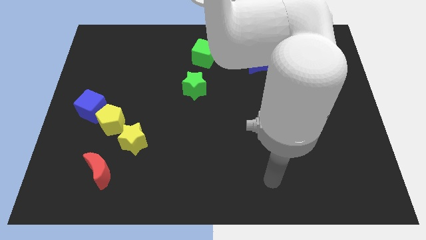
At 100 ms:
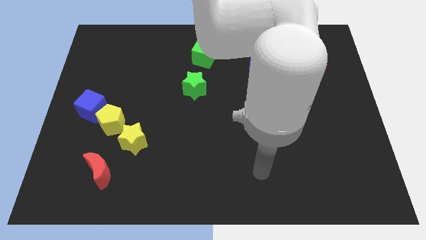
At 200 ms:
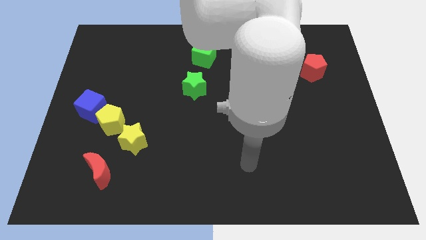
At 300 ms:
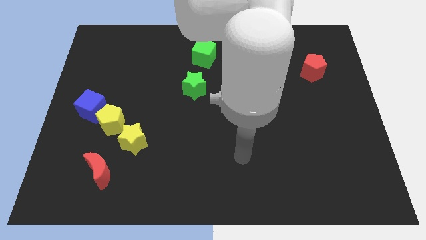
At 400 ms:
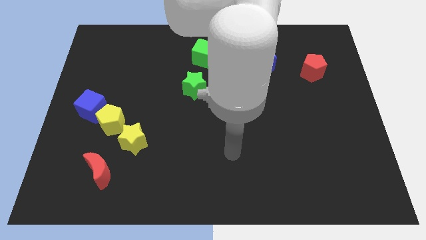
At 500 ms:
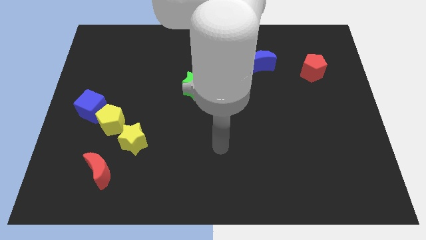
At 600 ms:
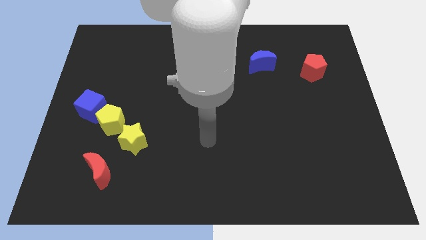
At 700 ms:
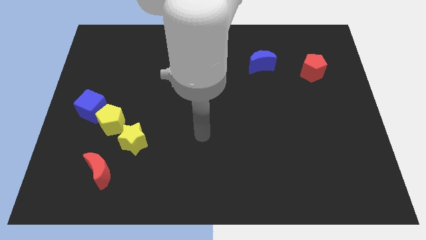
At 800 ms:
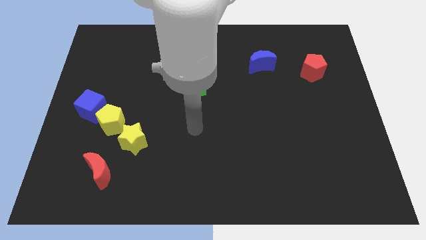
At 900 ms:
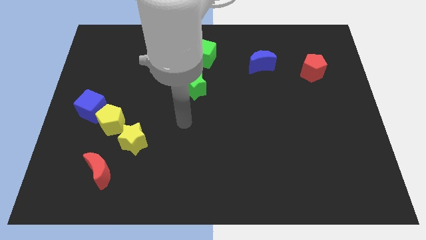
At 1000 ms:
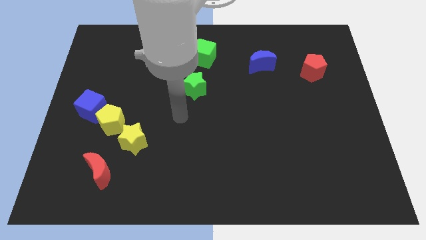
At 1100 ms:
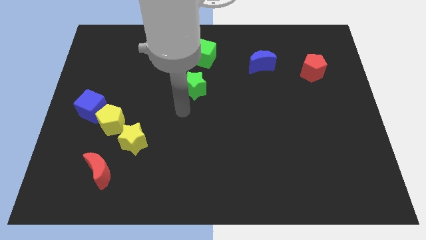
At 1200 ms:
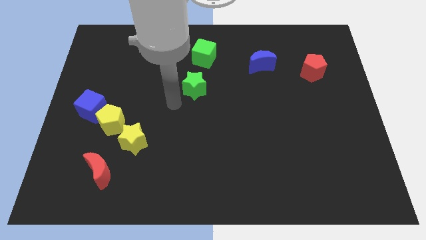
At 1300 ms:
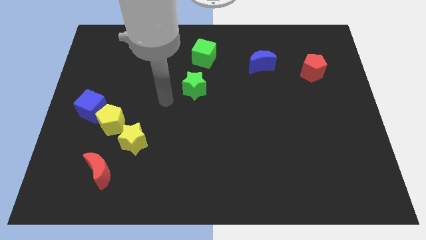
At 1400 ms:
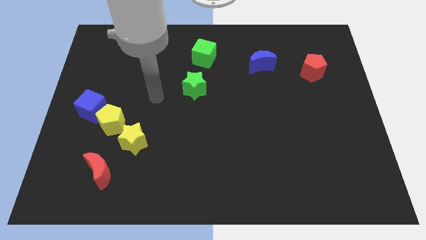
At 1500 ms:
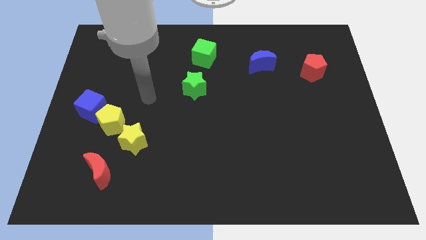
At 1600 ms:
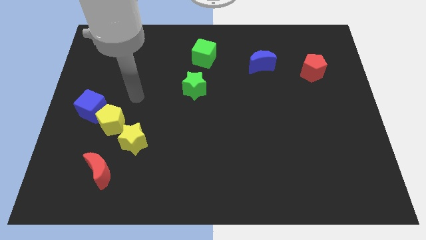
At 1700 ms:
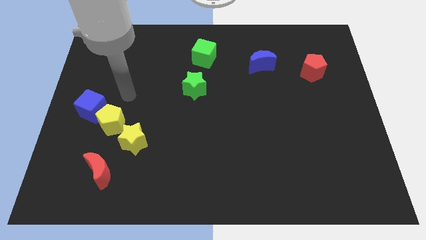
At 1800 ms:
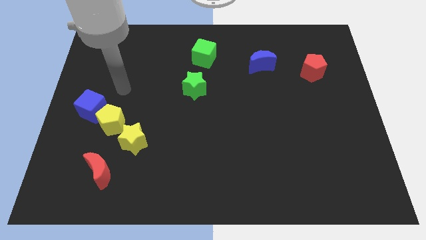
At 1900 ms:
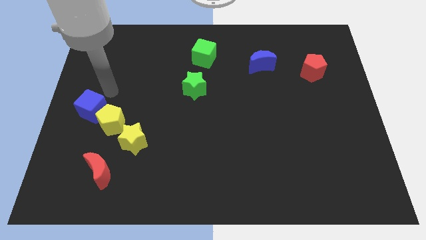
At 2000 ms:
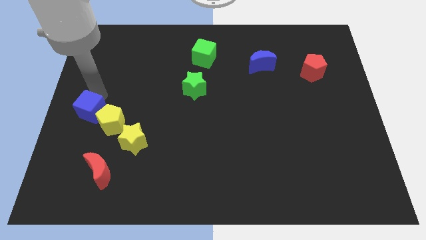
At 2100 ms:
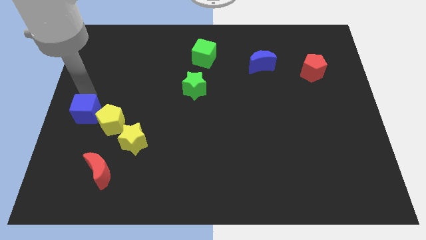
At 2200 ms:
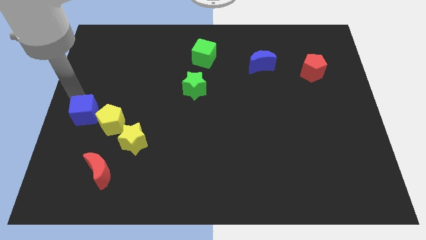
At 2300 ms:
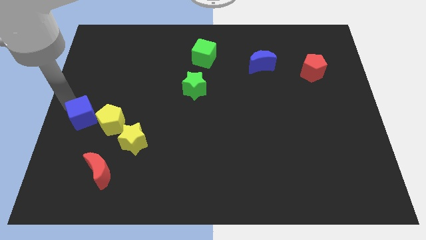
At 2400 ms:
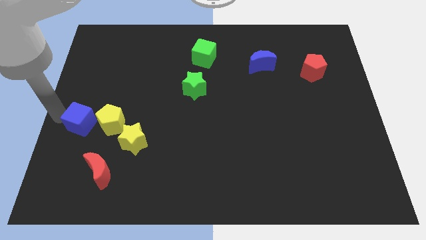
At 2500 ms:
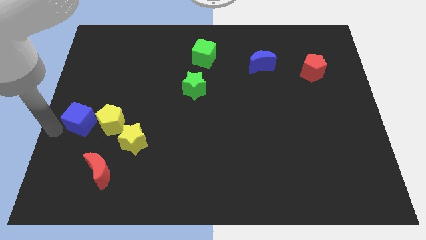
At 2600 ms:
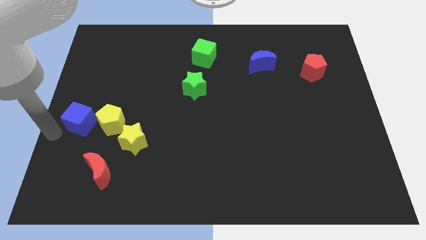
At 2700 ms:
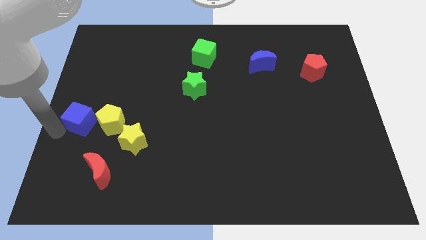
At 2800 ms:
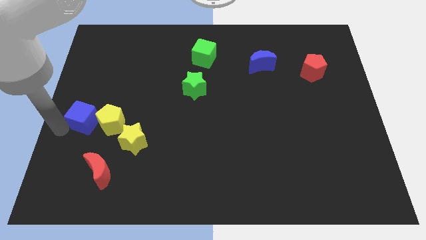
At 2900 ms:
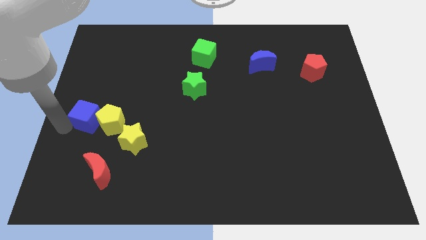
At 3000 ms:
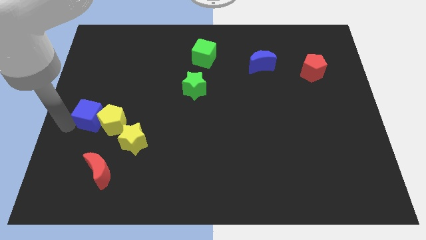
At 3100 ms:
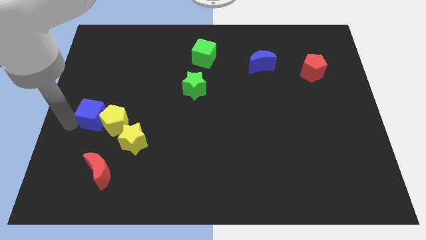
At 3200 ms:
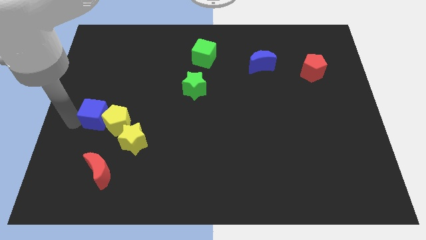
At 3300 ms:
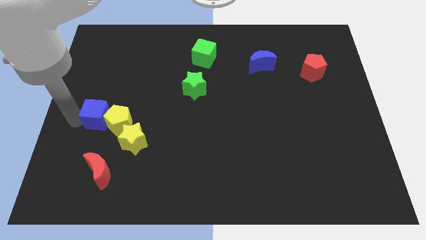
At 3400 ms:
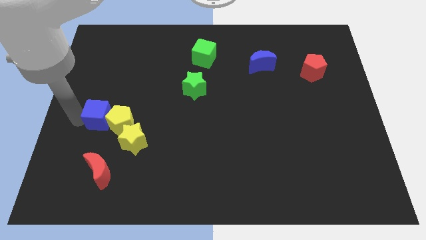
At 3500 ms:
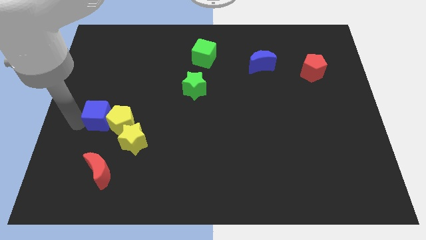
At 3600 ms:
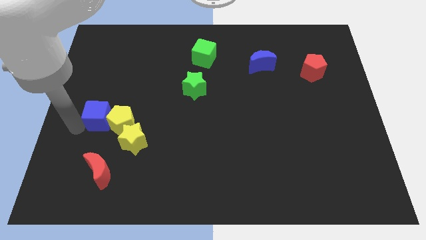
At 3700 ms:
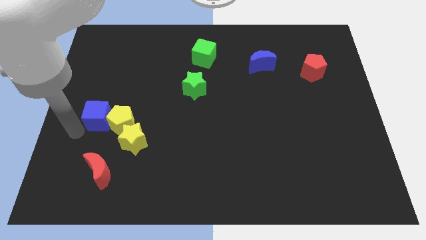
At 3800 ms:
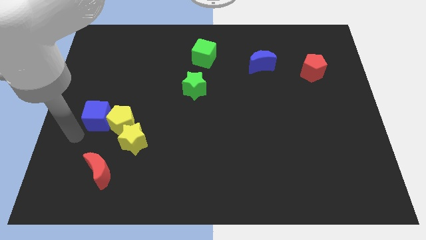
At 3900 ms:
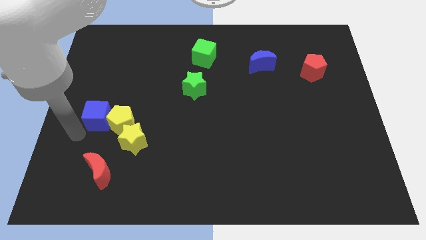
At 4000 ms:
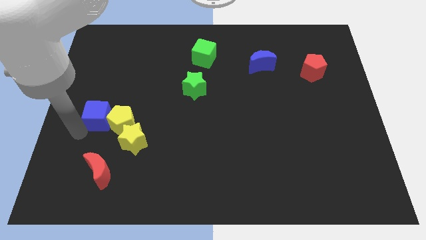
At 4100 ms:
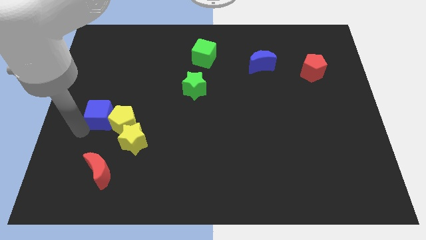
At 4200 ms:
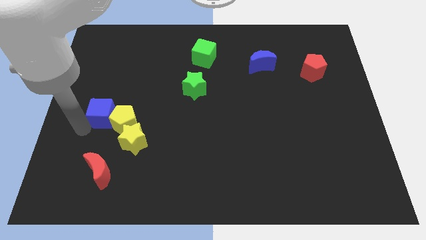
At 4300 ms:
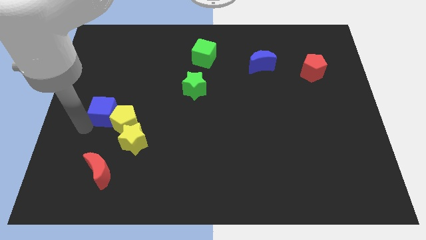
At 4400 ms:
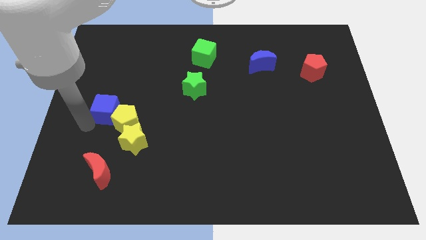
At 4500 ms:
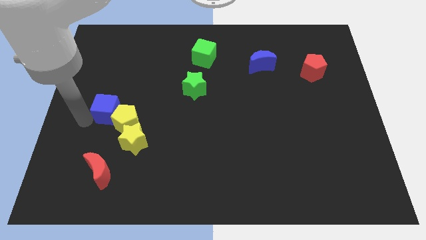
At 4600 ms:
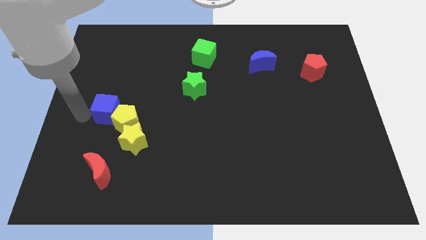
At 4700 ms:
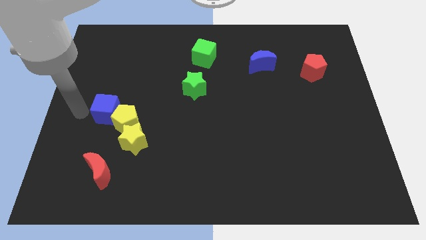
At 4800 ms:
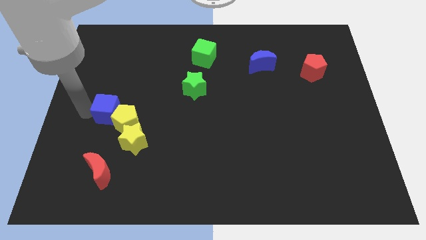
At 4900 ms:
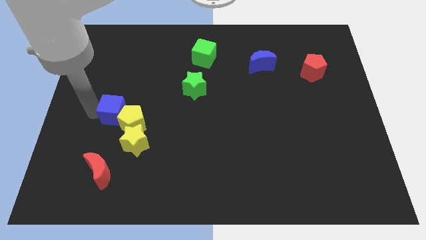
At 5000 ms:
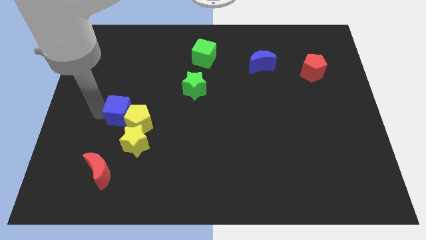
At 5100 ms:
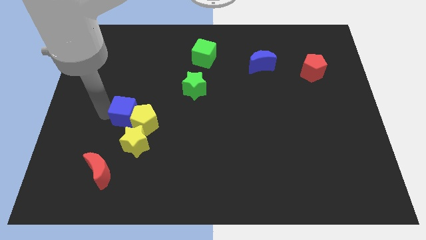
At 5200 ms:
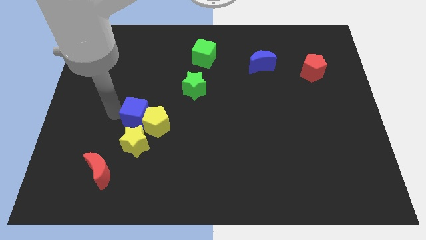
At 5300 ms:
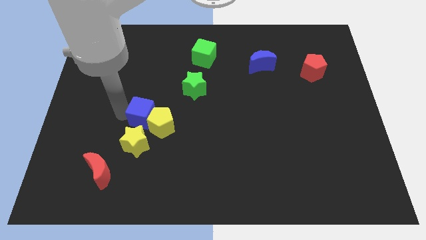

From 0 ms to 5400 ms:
push the blue cube to the top right of the yellow star

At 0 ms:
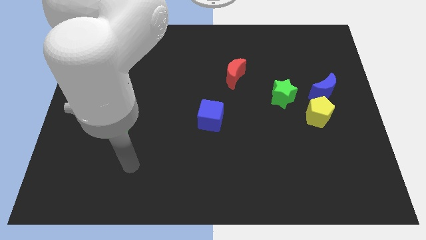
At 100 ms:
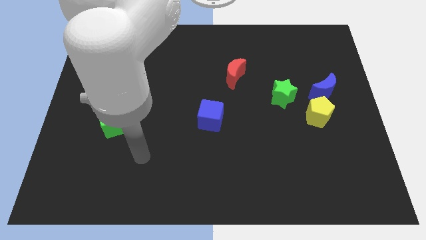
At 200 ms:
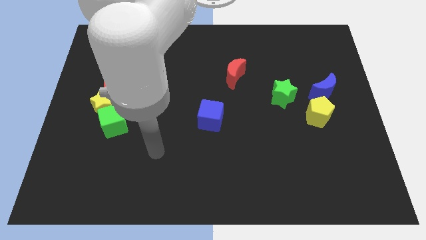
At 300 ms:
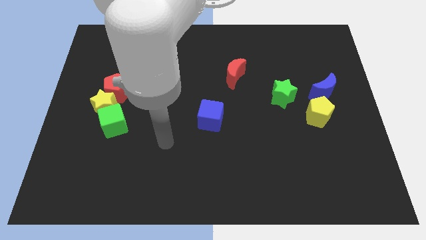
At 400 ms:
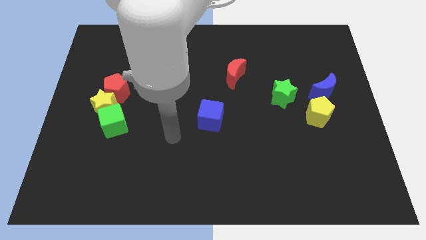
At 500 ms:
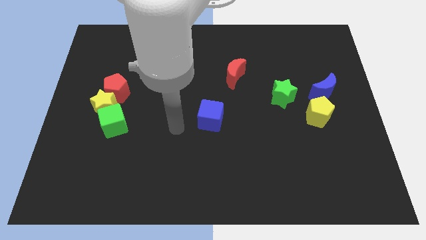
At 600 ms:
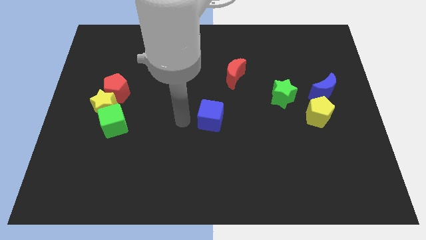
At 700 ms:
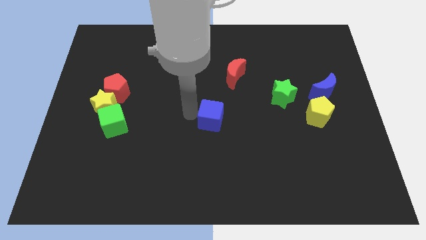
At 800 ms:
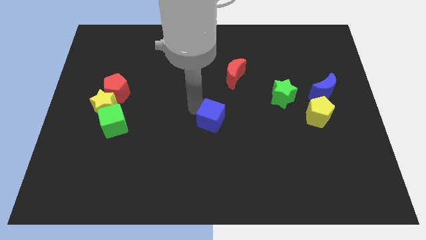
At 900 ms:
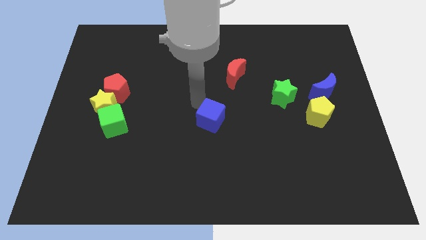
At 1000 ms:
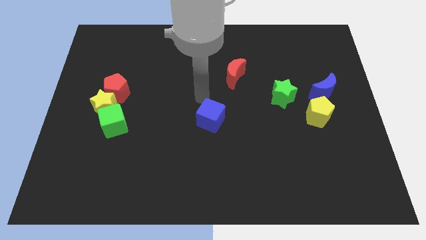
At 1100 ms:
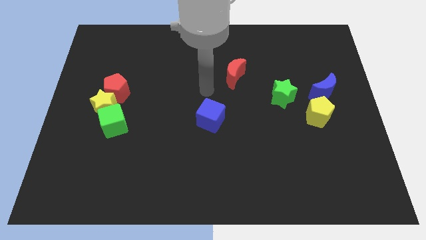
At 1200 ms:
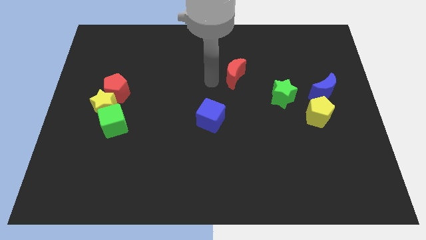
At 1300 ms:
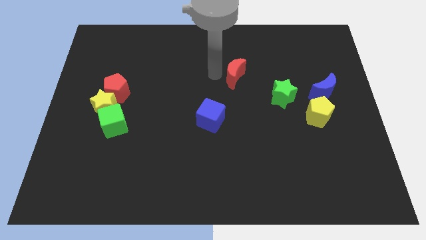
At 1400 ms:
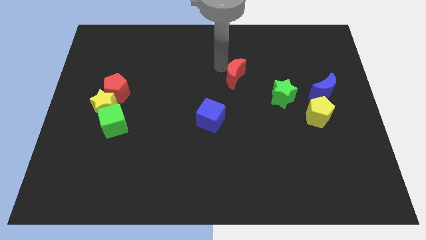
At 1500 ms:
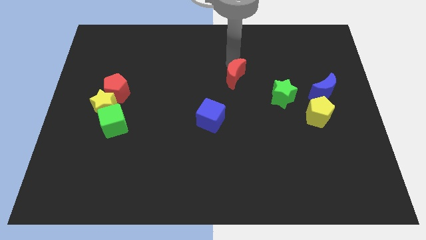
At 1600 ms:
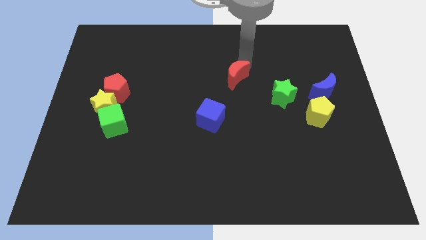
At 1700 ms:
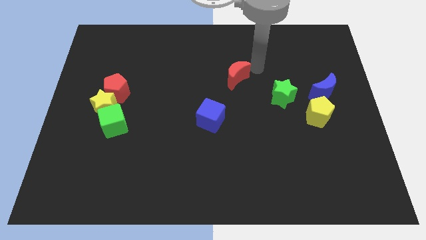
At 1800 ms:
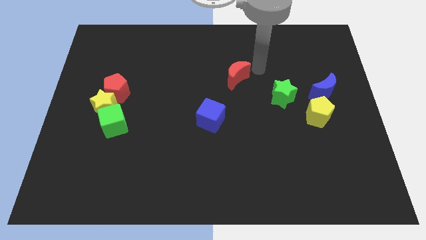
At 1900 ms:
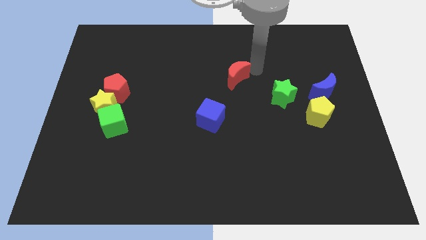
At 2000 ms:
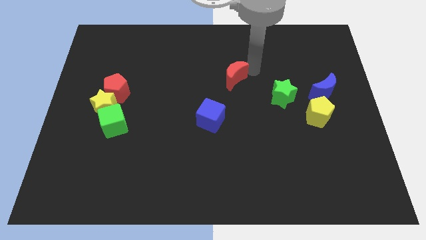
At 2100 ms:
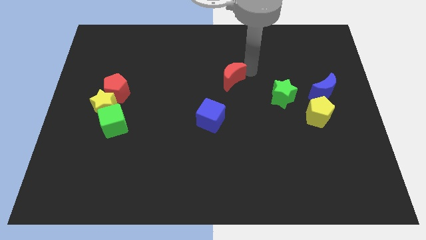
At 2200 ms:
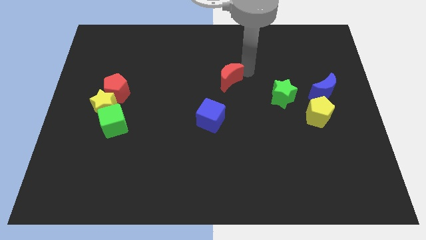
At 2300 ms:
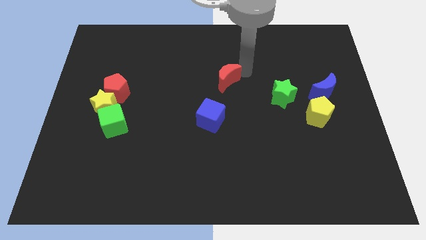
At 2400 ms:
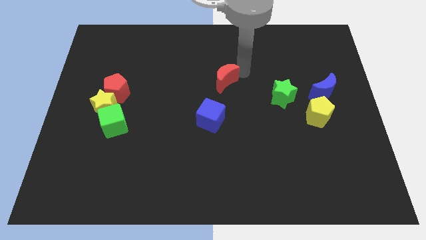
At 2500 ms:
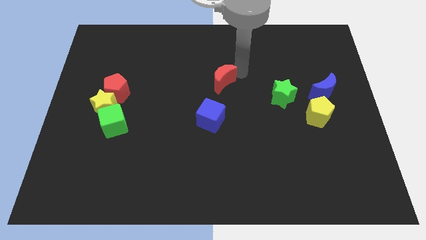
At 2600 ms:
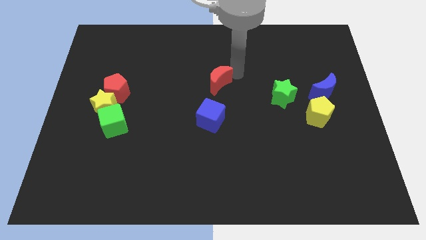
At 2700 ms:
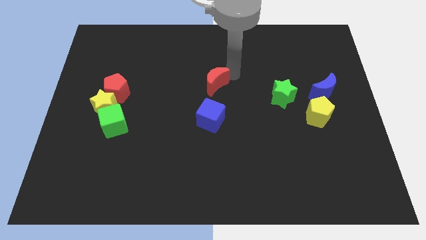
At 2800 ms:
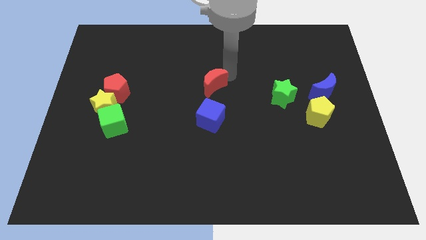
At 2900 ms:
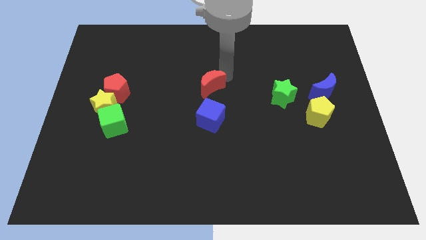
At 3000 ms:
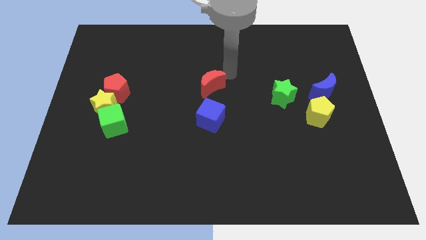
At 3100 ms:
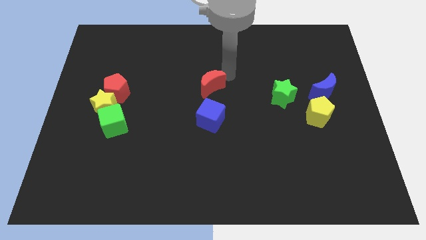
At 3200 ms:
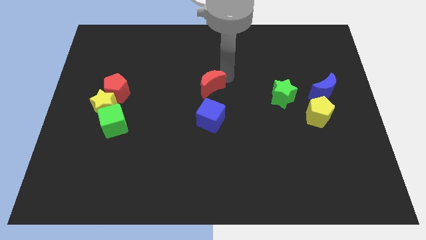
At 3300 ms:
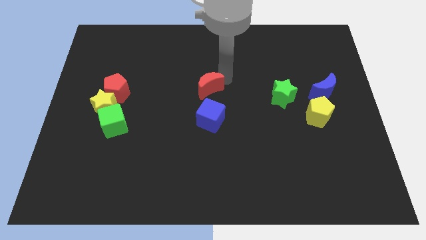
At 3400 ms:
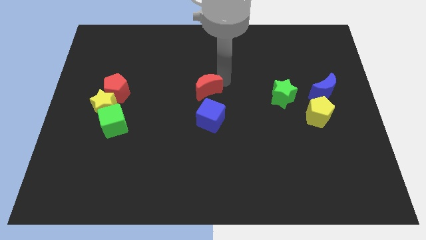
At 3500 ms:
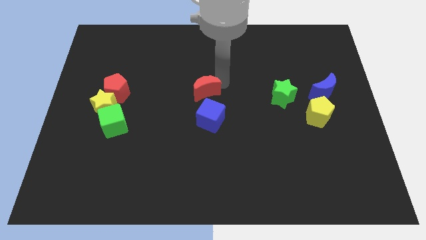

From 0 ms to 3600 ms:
slide the red moon diagonally up and to the left of the blue cube
